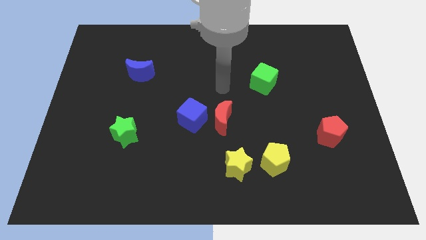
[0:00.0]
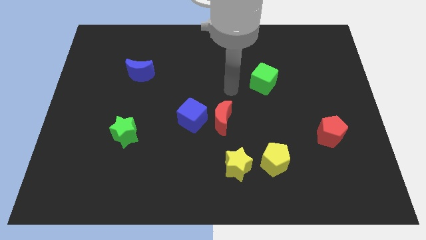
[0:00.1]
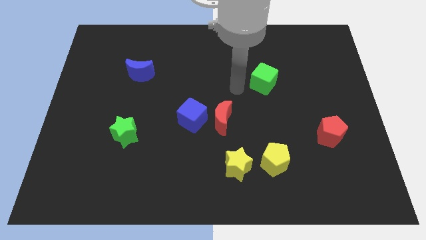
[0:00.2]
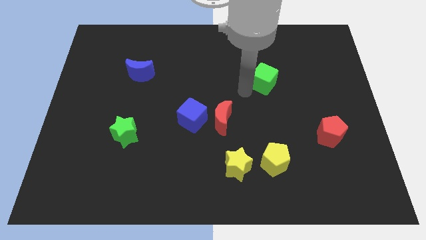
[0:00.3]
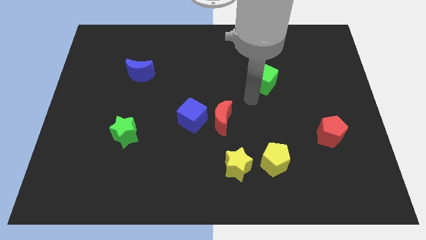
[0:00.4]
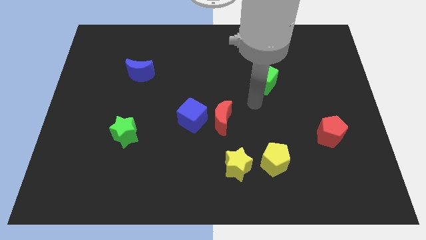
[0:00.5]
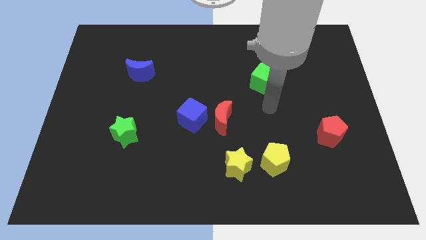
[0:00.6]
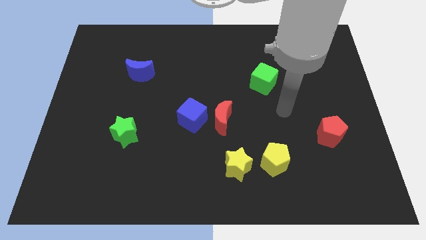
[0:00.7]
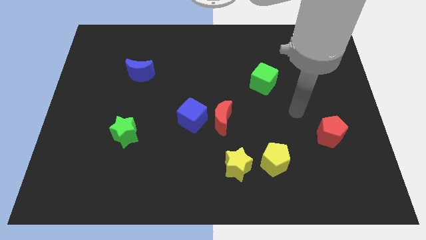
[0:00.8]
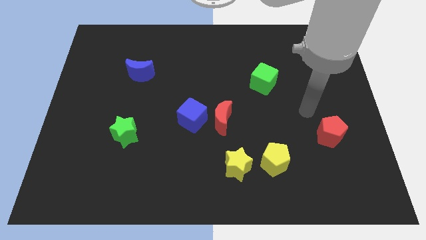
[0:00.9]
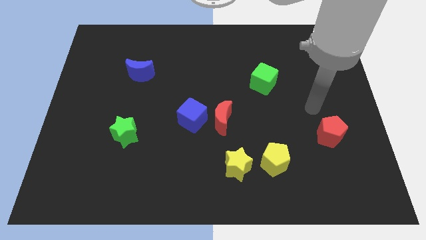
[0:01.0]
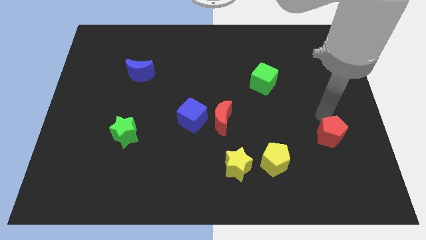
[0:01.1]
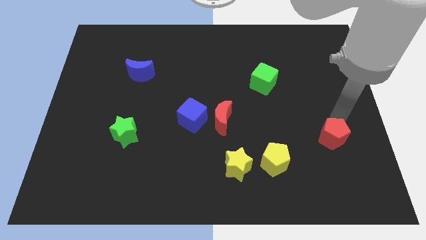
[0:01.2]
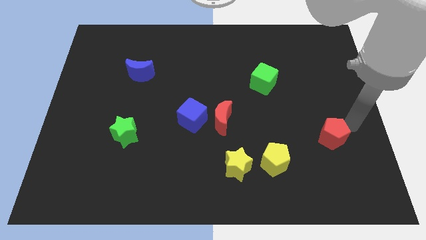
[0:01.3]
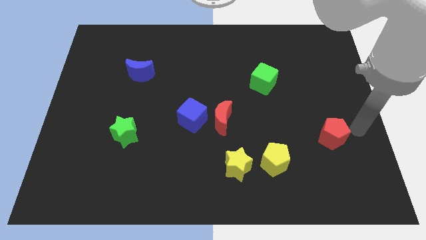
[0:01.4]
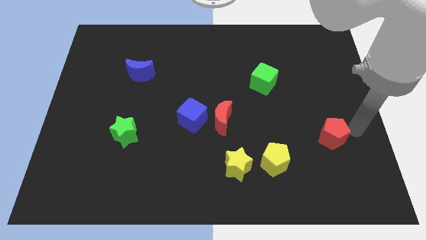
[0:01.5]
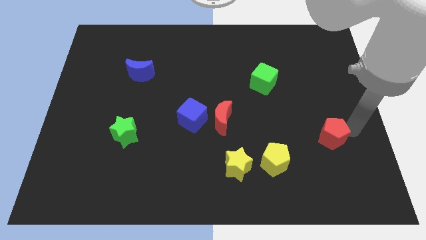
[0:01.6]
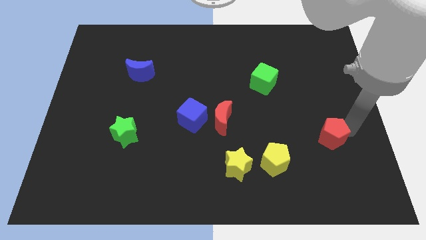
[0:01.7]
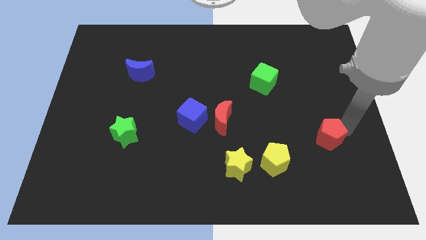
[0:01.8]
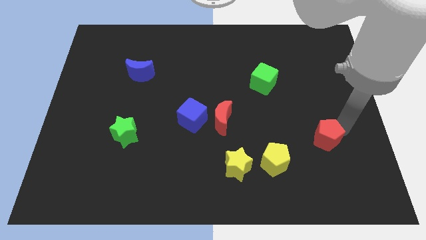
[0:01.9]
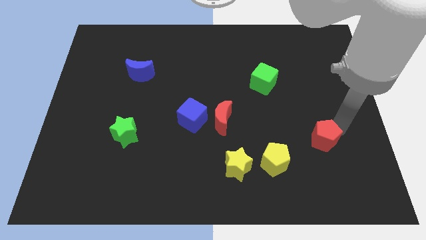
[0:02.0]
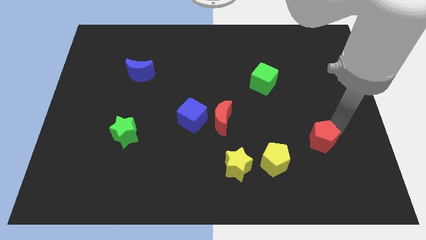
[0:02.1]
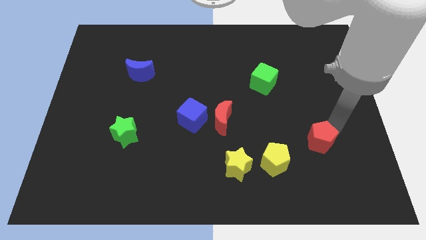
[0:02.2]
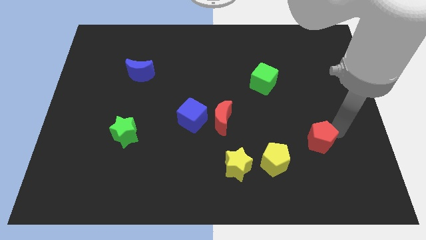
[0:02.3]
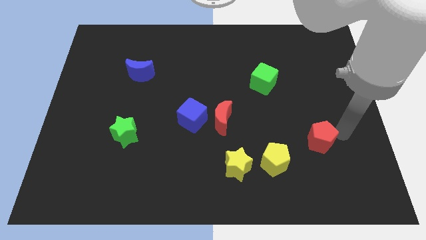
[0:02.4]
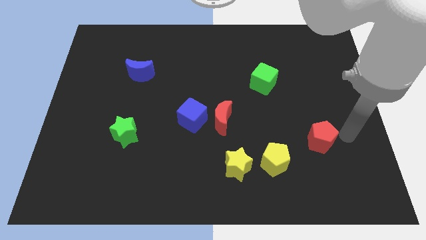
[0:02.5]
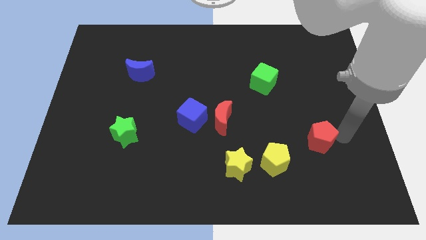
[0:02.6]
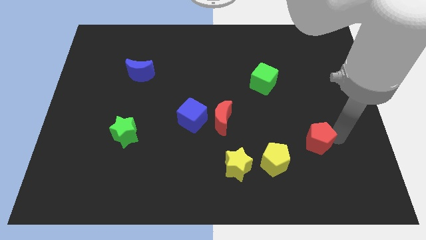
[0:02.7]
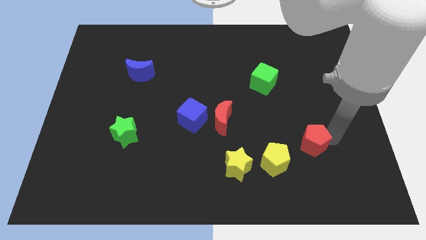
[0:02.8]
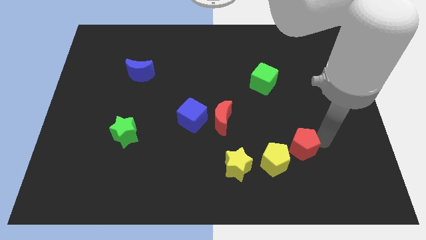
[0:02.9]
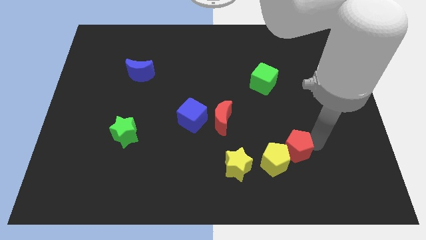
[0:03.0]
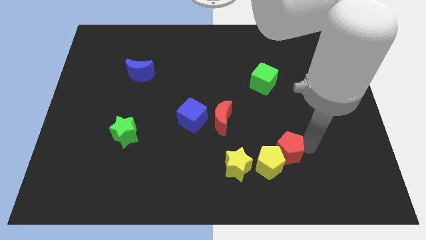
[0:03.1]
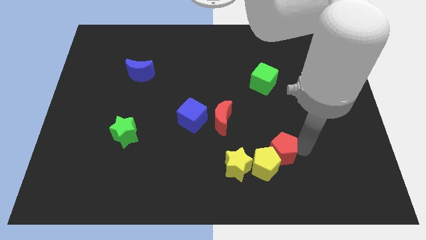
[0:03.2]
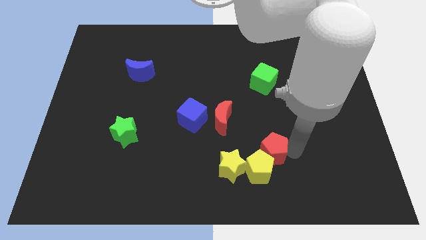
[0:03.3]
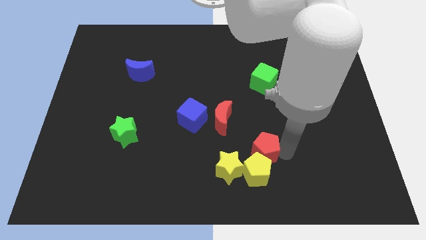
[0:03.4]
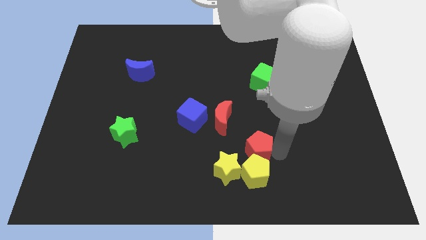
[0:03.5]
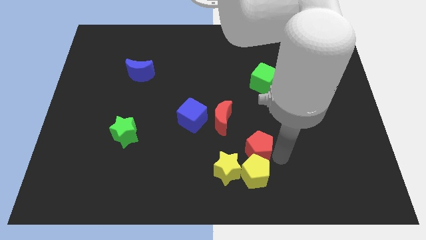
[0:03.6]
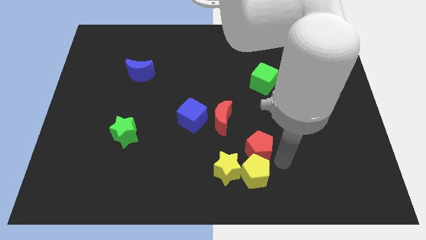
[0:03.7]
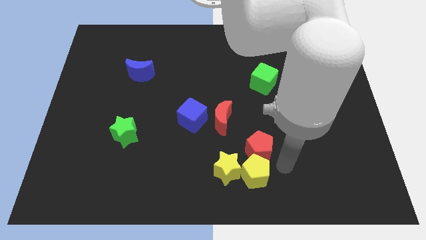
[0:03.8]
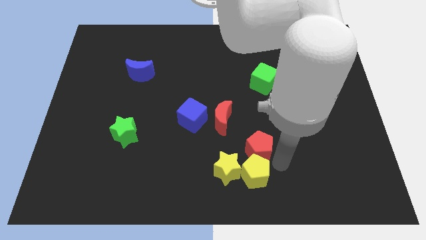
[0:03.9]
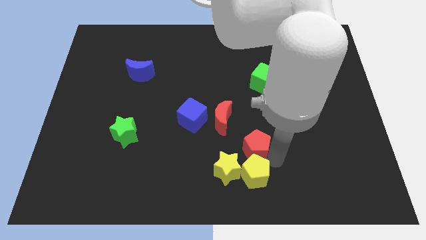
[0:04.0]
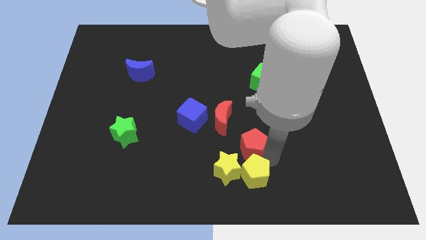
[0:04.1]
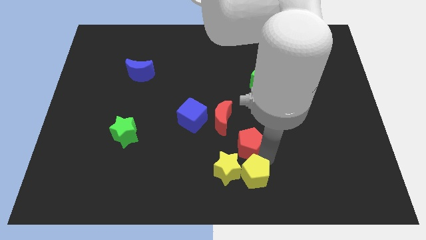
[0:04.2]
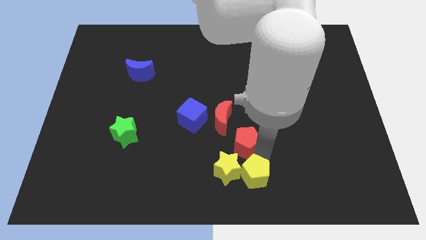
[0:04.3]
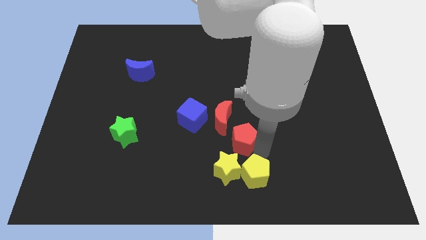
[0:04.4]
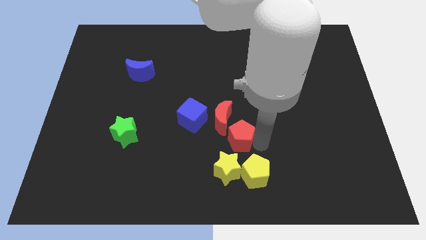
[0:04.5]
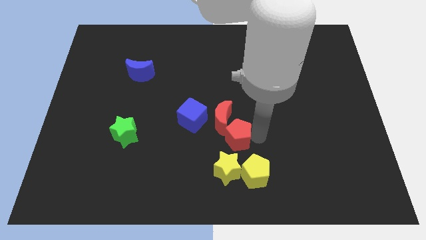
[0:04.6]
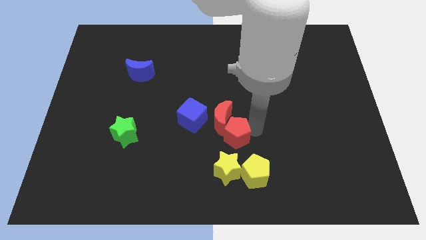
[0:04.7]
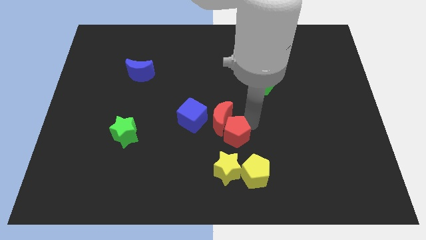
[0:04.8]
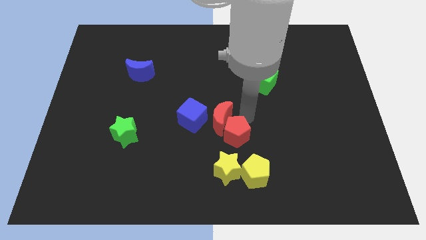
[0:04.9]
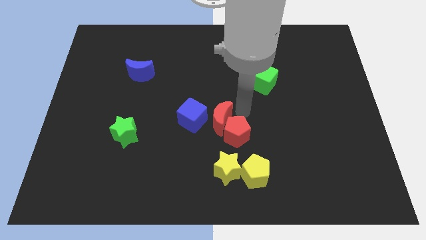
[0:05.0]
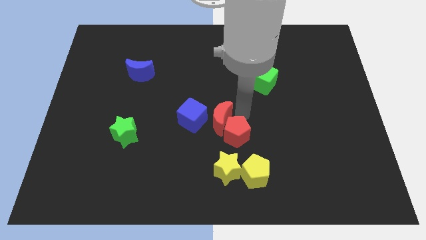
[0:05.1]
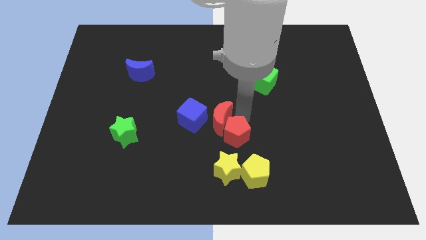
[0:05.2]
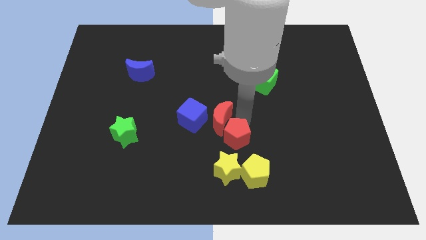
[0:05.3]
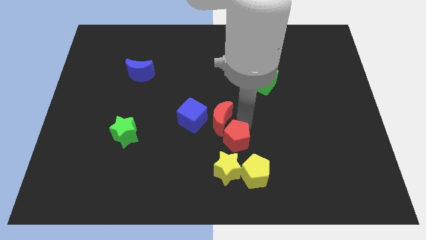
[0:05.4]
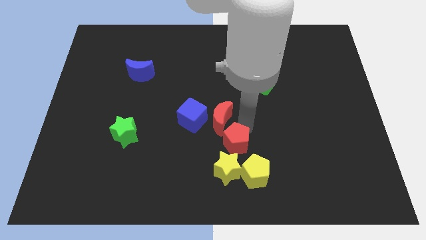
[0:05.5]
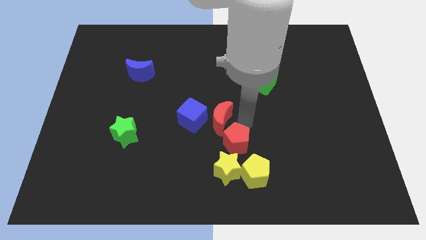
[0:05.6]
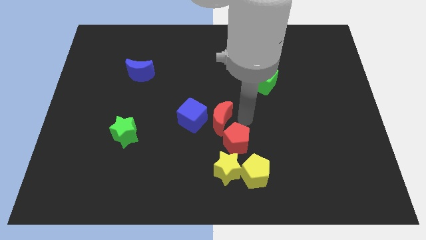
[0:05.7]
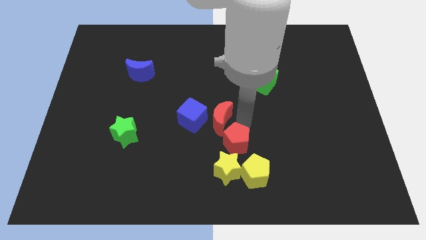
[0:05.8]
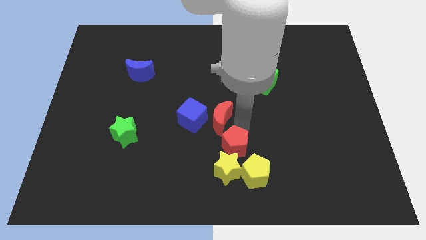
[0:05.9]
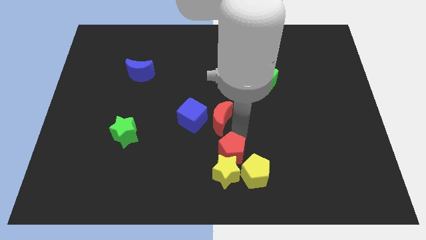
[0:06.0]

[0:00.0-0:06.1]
push the red pentagon towards the yellow star
